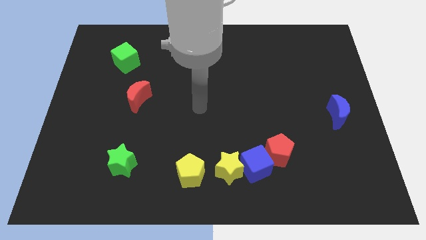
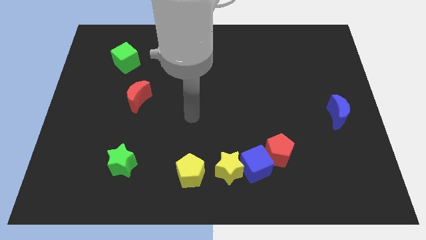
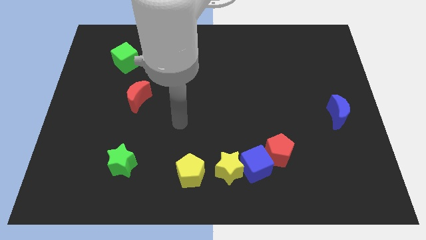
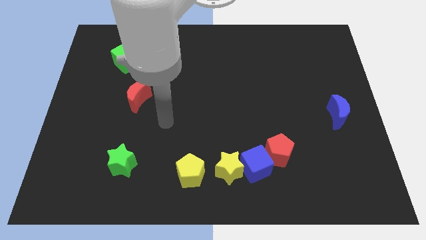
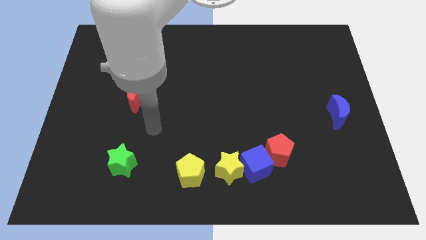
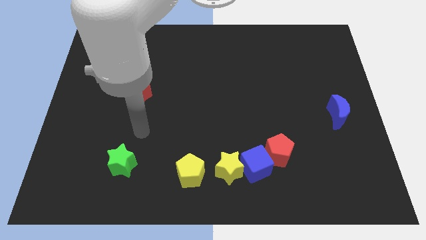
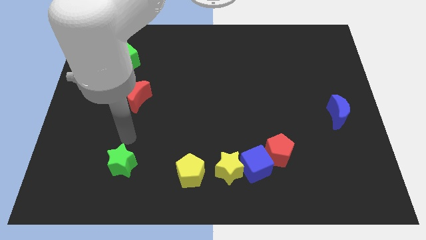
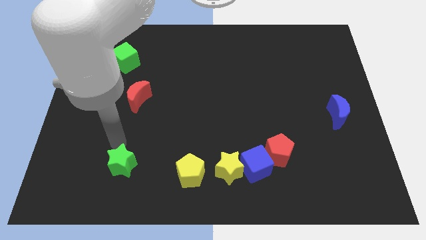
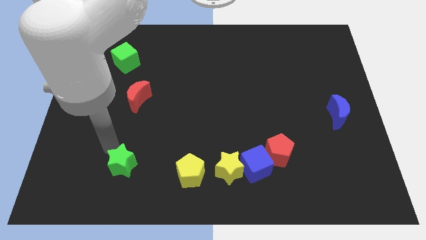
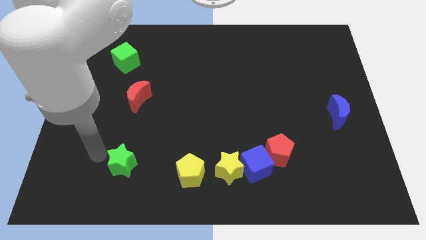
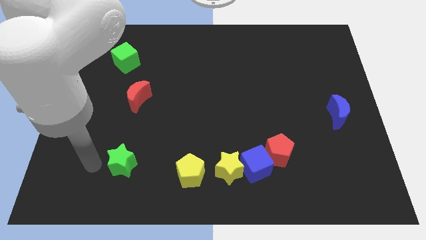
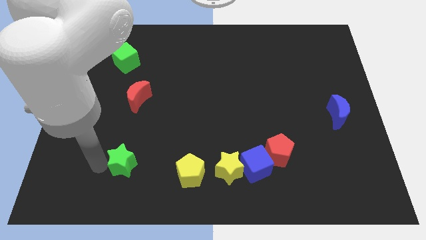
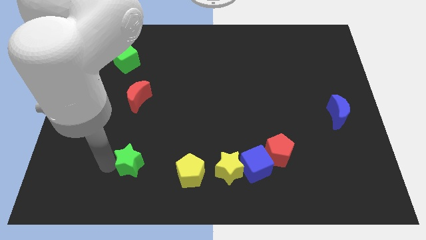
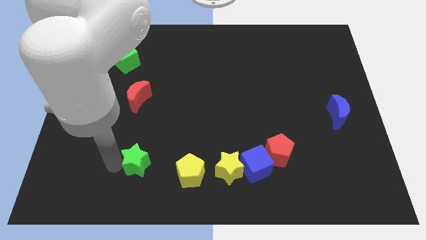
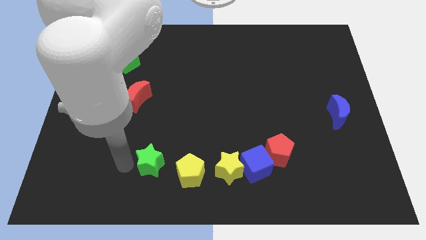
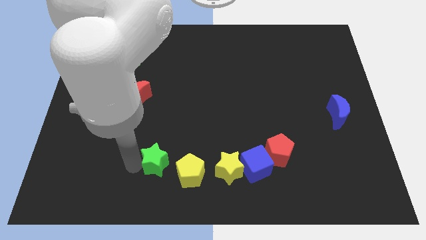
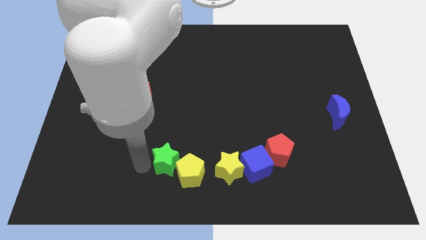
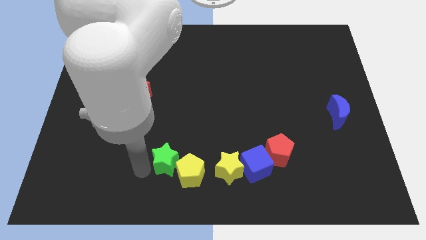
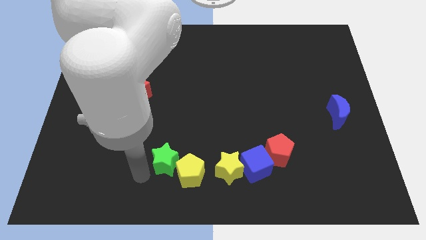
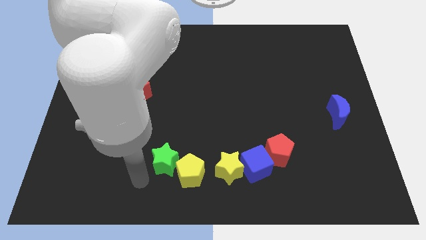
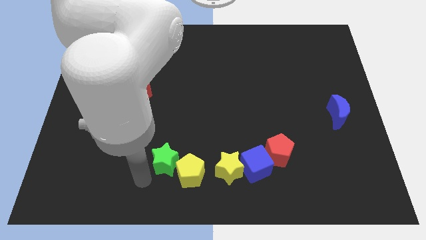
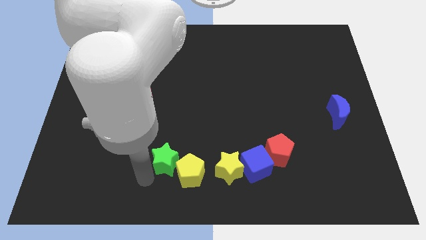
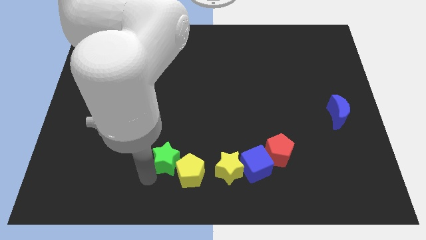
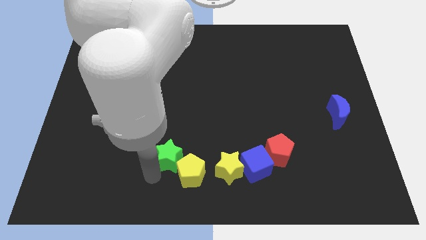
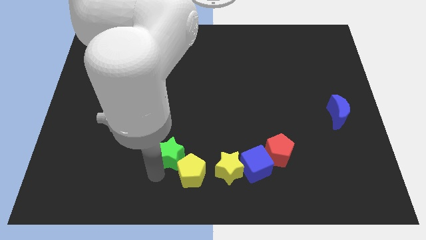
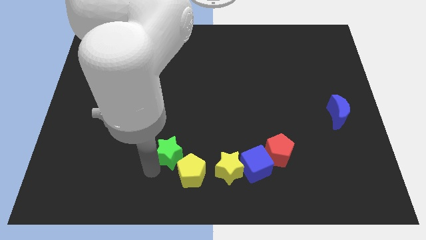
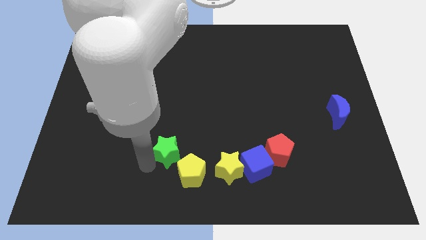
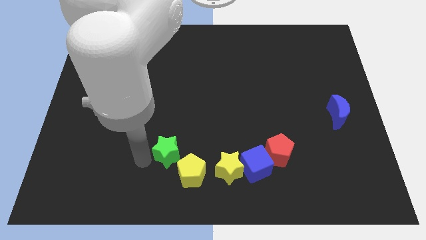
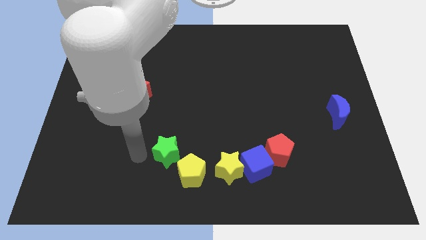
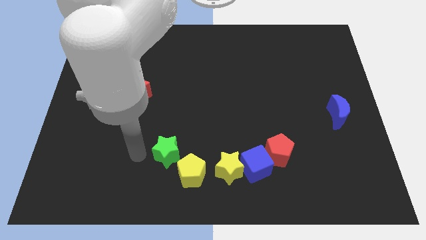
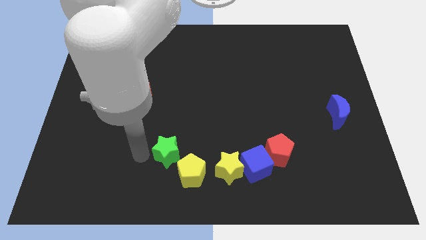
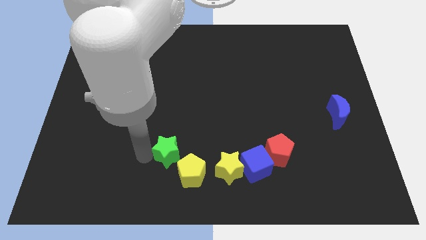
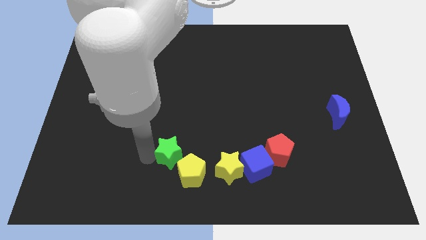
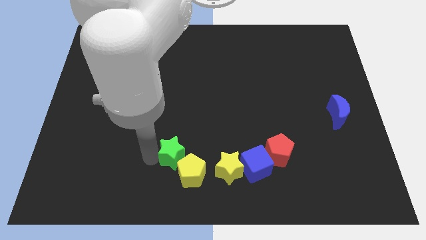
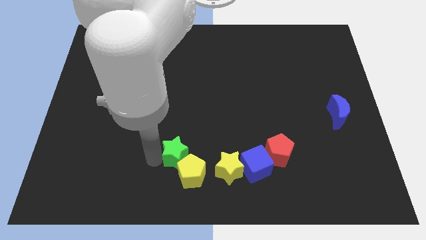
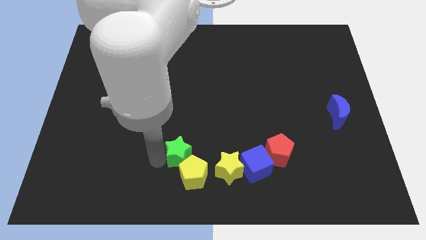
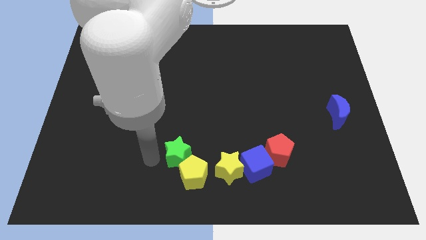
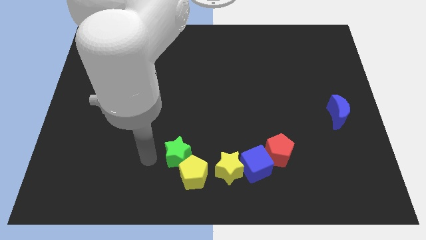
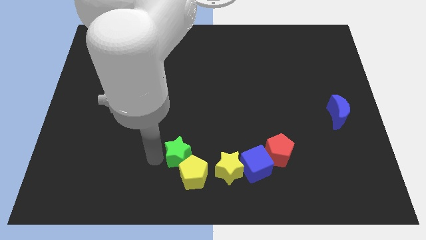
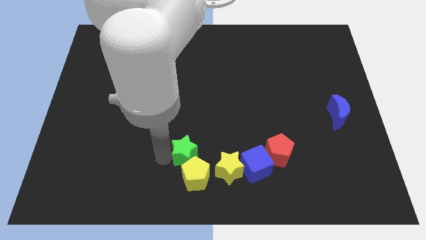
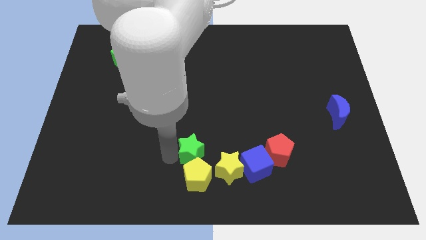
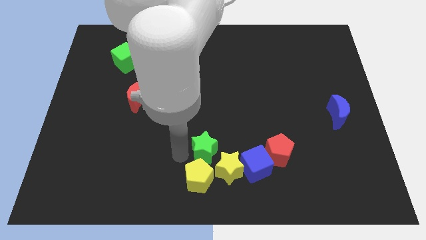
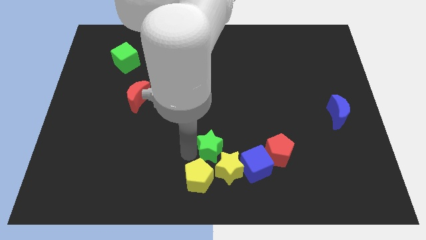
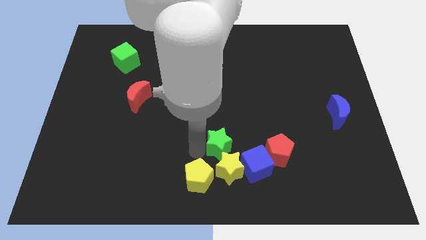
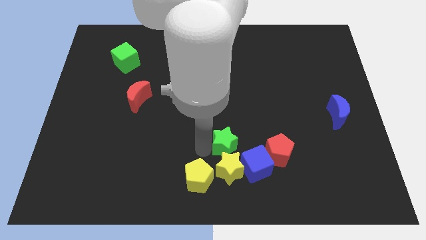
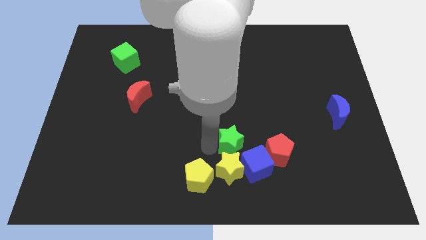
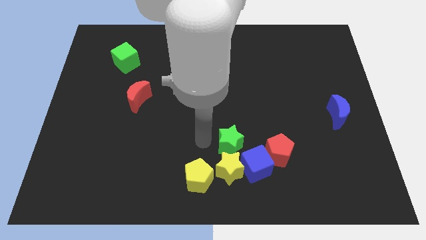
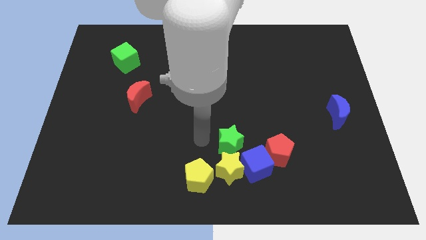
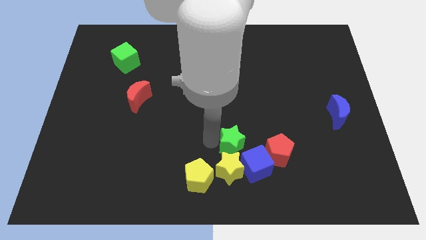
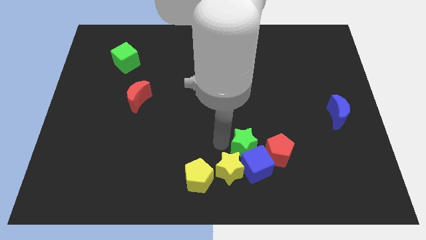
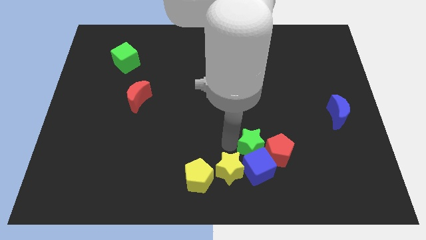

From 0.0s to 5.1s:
move the green star towards the red pentagon

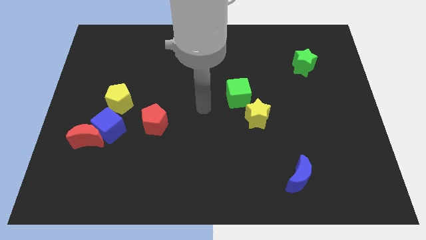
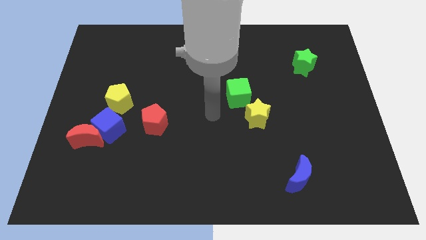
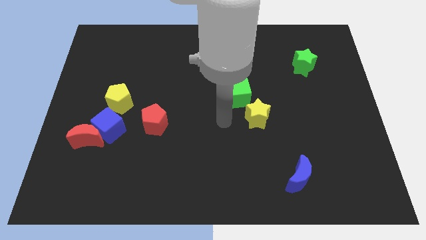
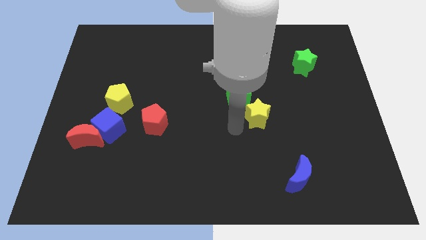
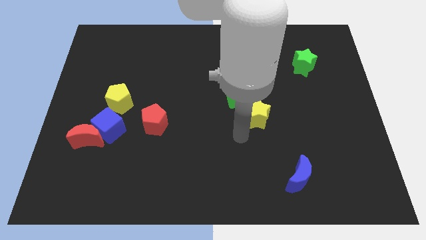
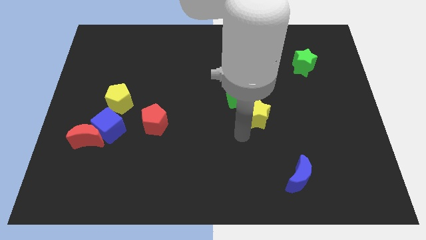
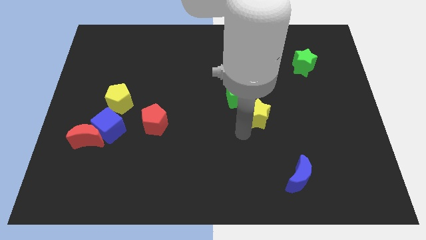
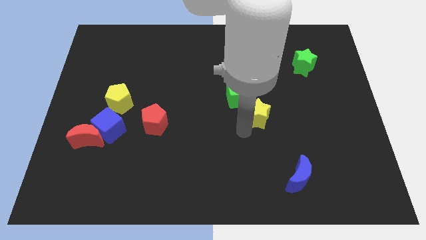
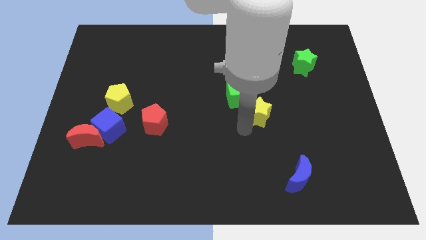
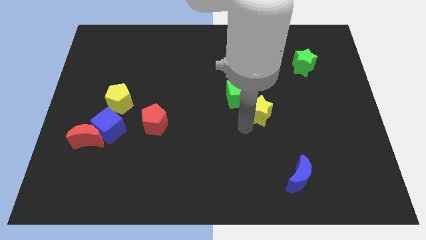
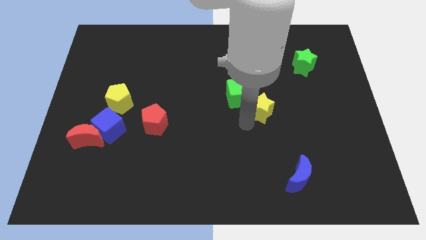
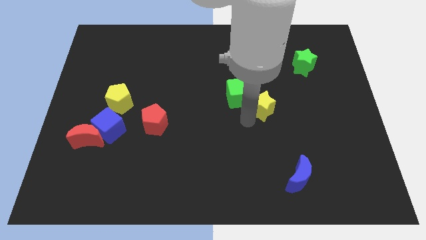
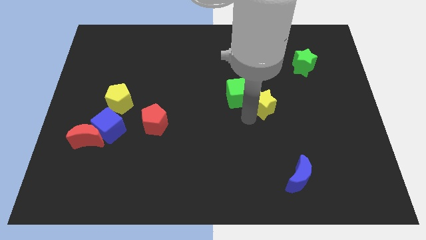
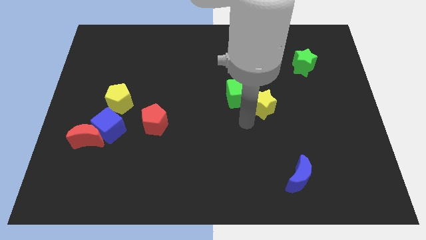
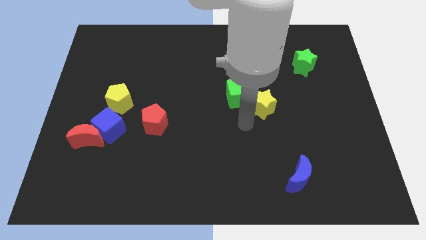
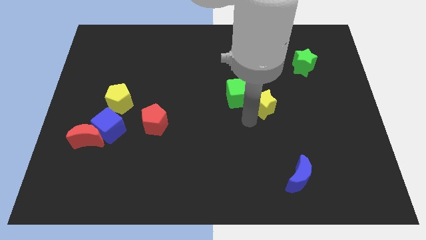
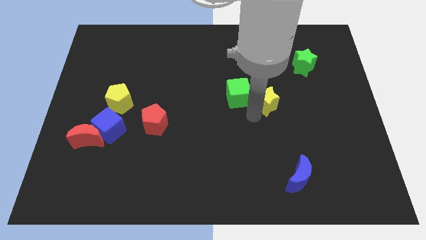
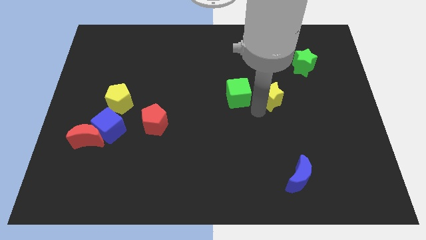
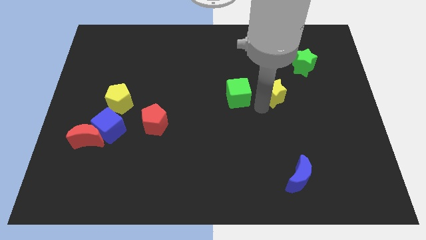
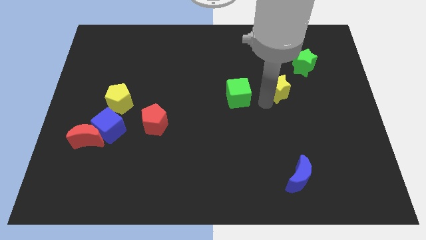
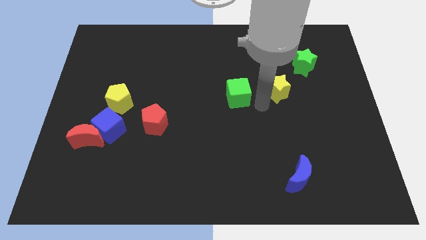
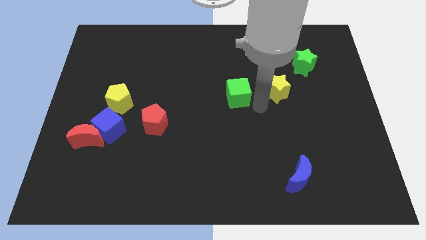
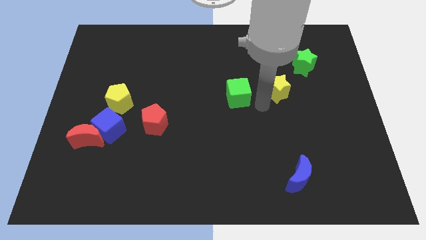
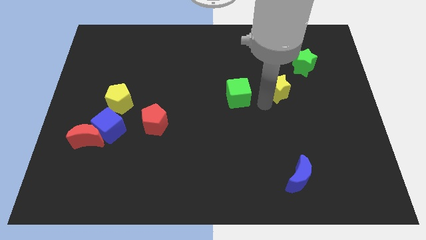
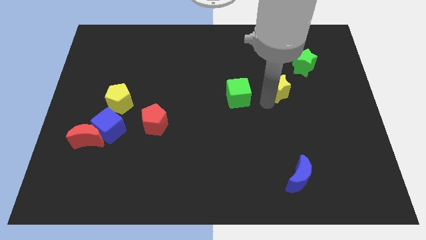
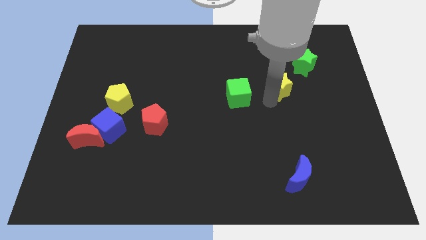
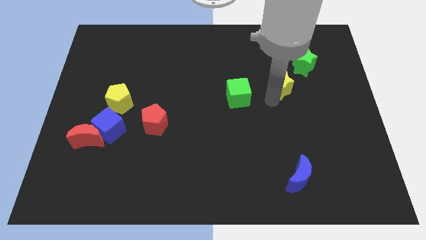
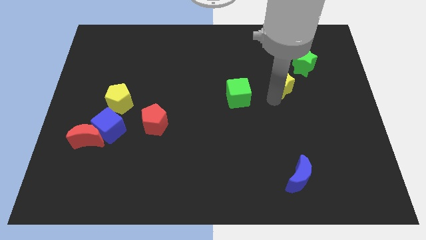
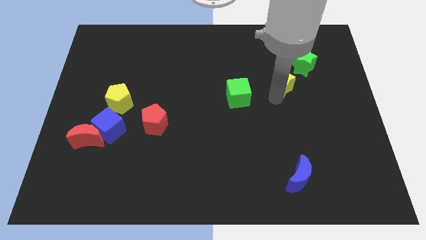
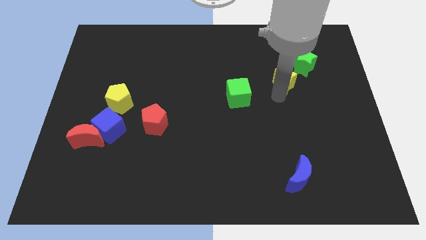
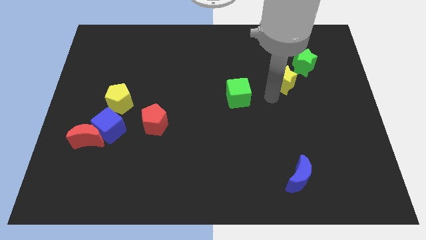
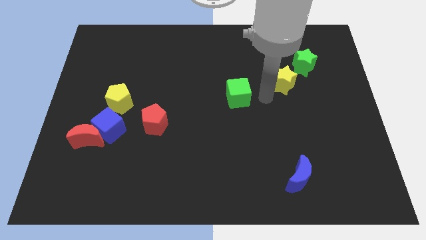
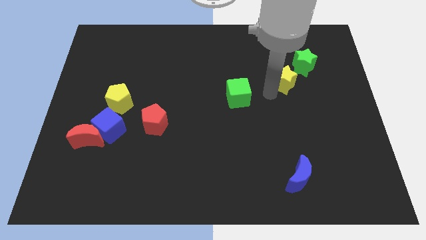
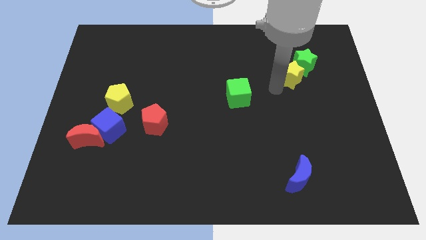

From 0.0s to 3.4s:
move the yellow star close to the green star
